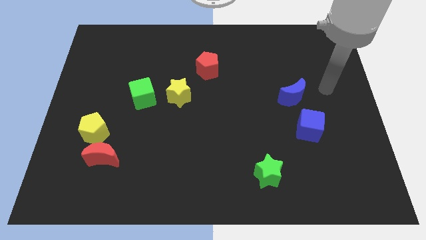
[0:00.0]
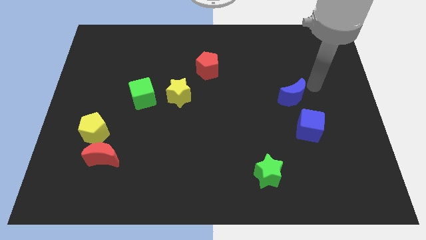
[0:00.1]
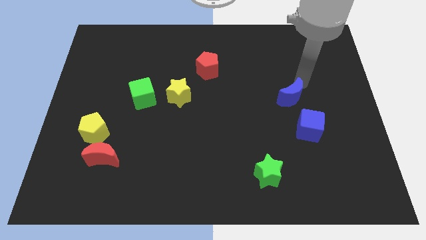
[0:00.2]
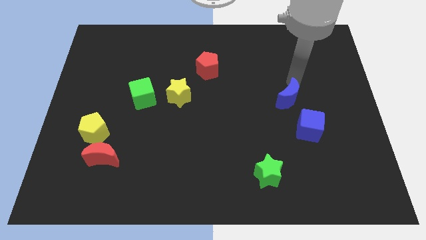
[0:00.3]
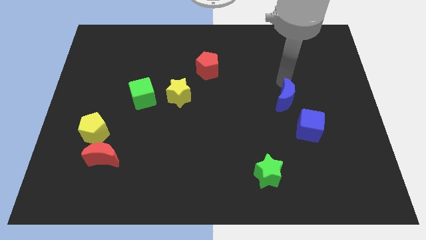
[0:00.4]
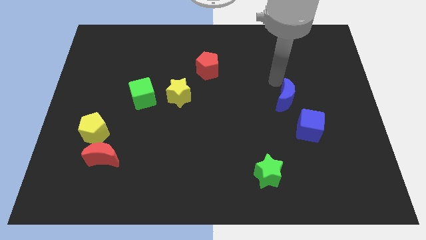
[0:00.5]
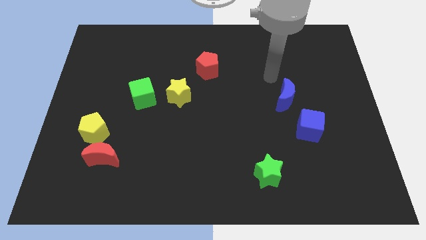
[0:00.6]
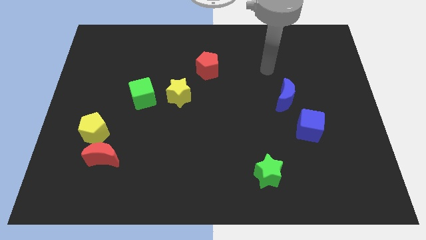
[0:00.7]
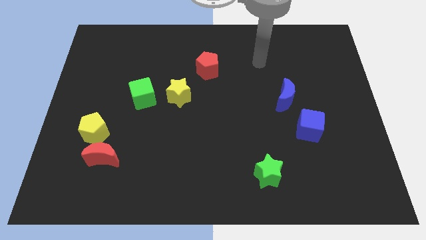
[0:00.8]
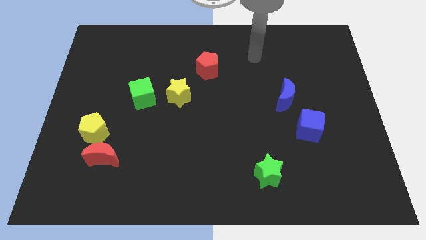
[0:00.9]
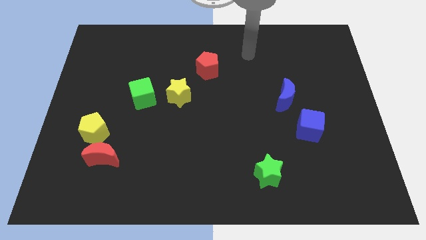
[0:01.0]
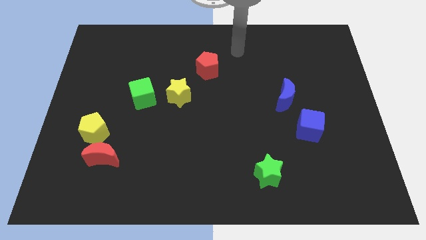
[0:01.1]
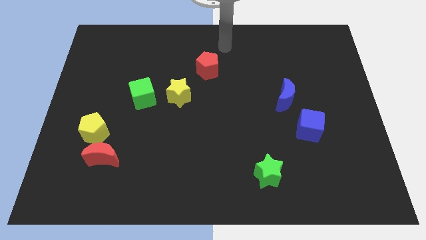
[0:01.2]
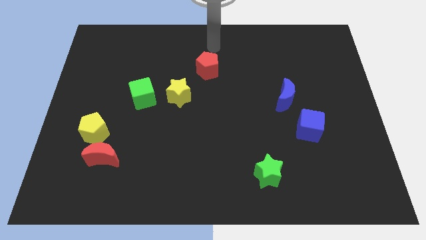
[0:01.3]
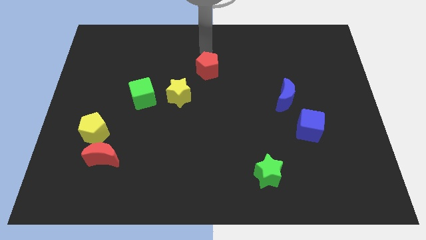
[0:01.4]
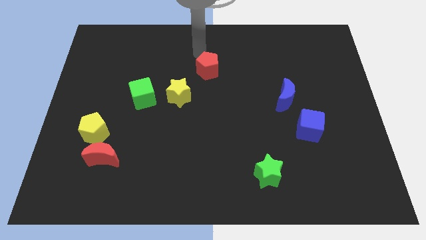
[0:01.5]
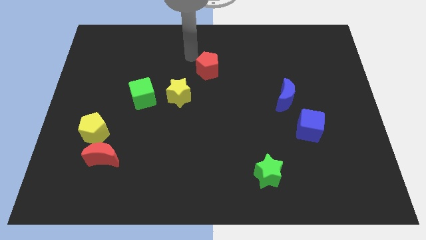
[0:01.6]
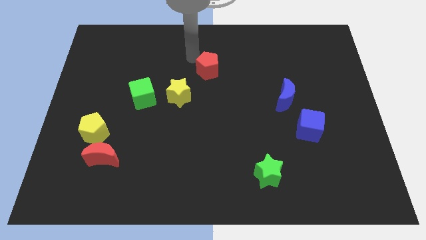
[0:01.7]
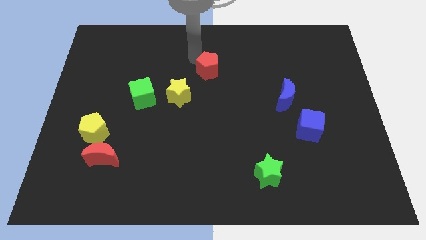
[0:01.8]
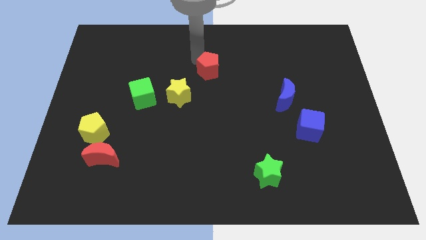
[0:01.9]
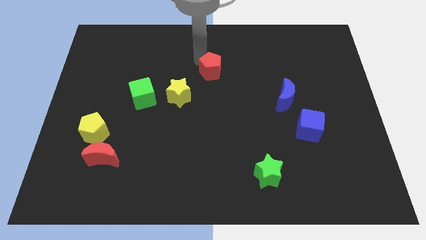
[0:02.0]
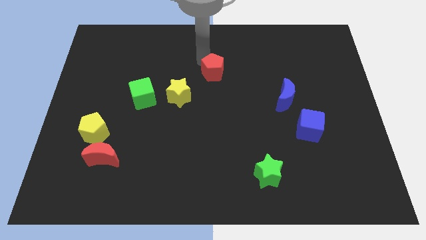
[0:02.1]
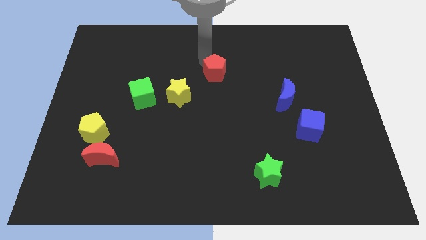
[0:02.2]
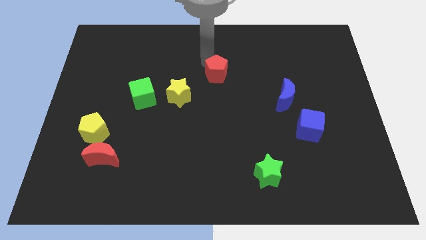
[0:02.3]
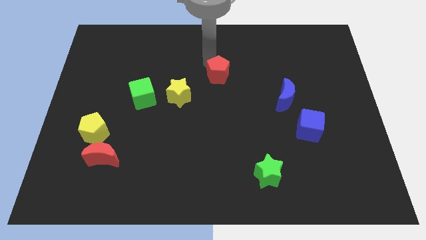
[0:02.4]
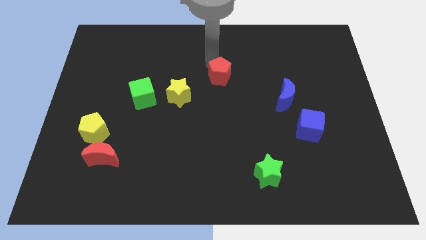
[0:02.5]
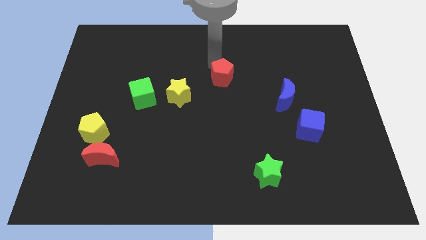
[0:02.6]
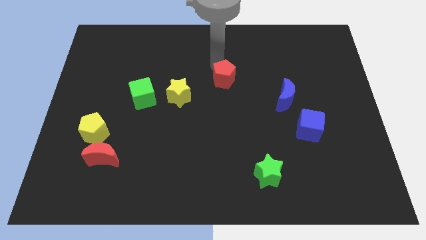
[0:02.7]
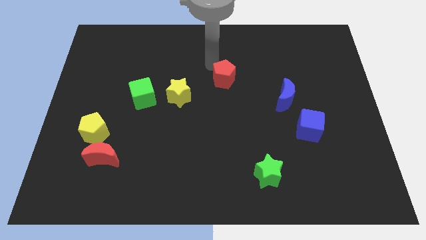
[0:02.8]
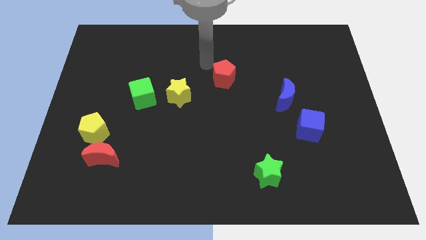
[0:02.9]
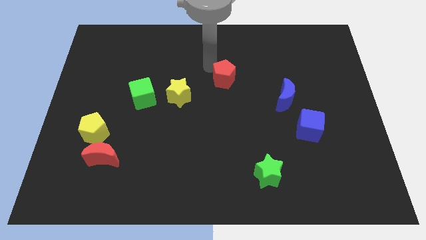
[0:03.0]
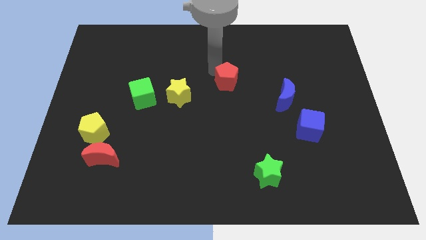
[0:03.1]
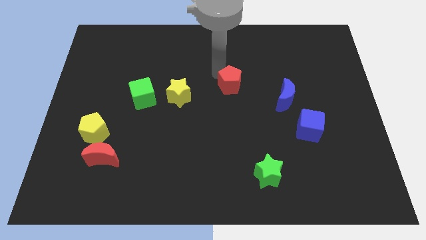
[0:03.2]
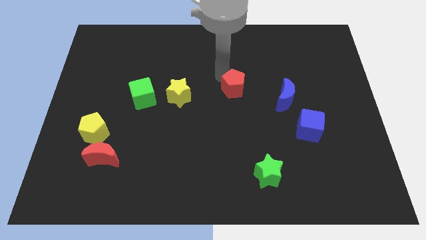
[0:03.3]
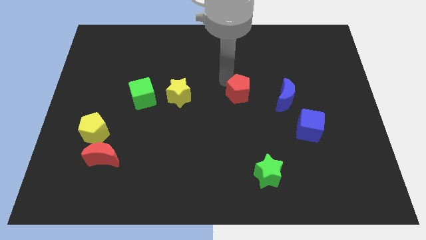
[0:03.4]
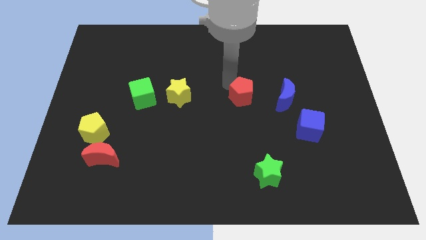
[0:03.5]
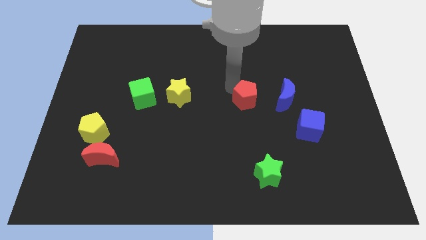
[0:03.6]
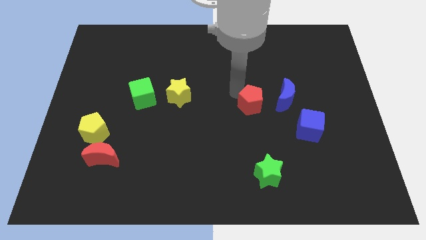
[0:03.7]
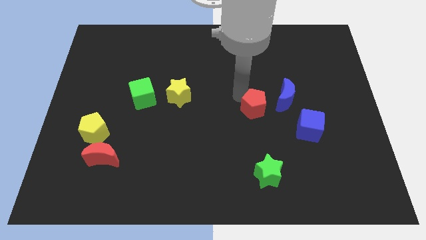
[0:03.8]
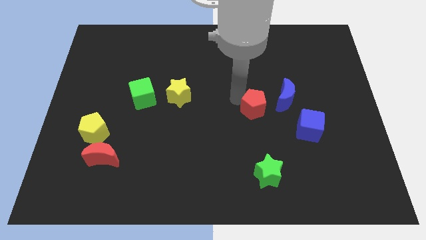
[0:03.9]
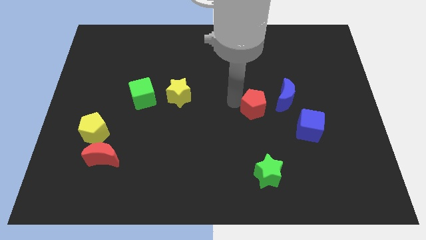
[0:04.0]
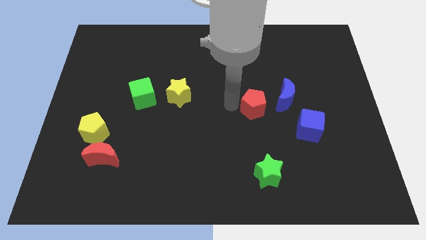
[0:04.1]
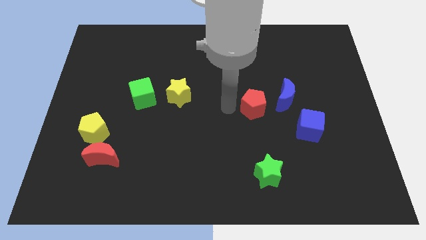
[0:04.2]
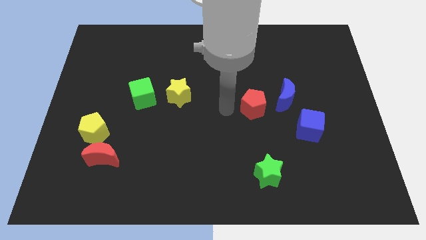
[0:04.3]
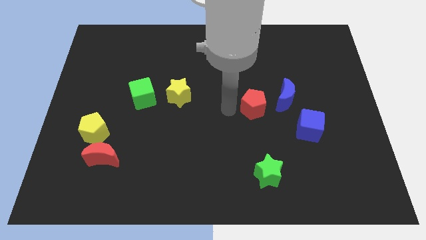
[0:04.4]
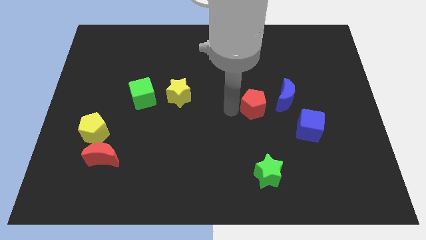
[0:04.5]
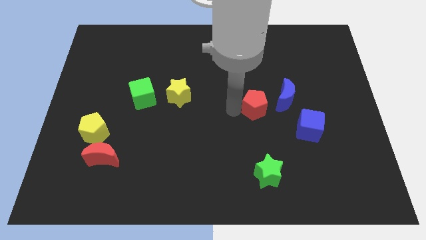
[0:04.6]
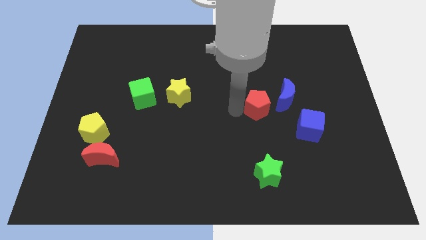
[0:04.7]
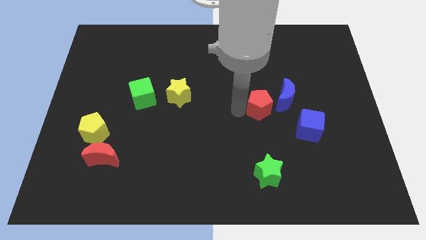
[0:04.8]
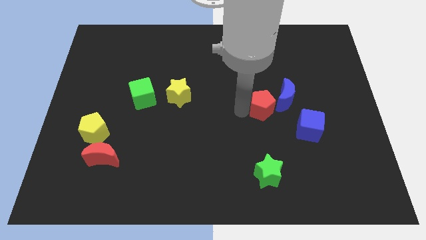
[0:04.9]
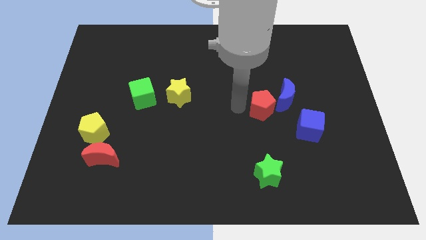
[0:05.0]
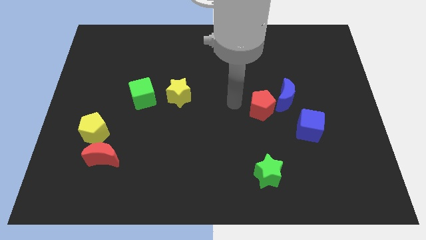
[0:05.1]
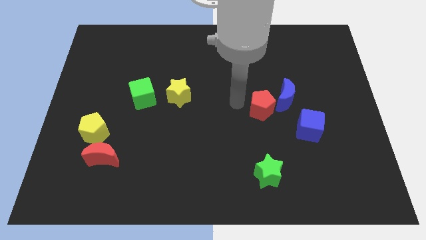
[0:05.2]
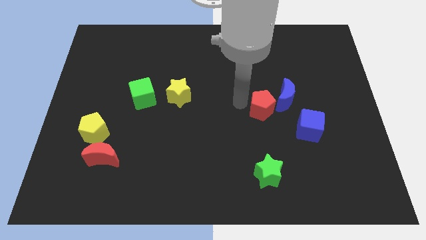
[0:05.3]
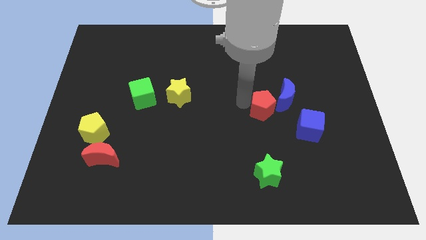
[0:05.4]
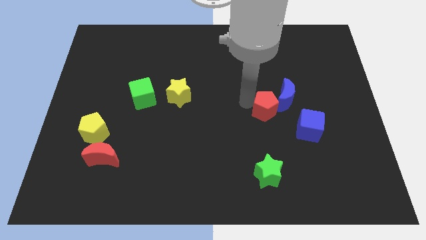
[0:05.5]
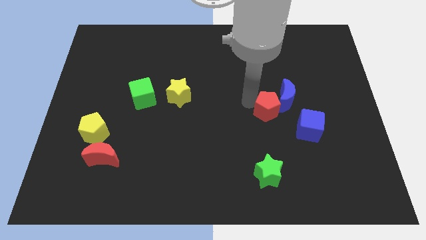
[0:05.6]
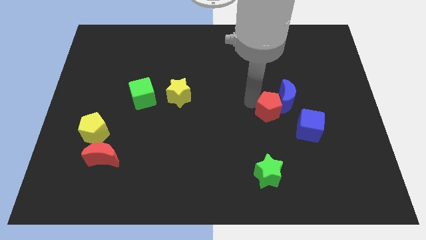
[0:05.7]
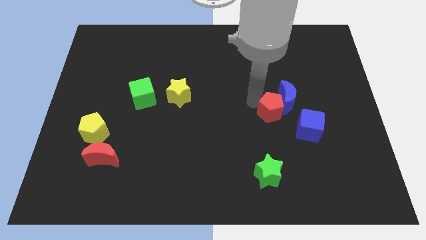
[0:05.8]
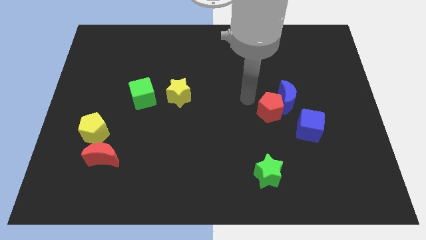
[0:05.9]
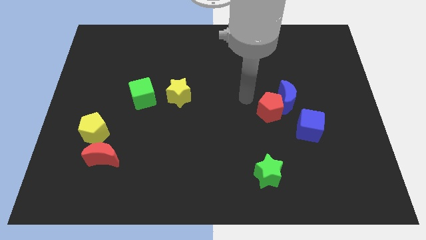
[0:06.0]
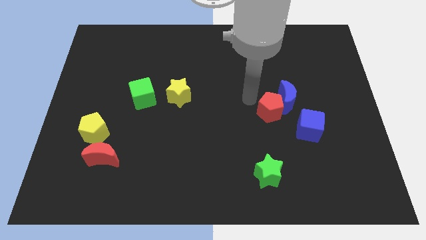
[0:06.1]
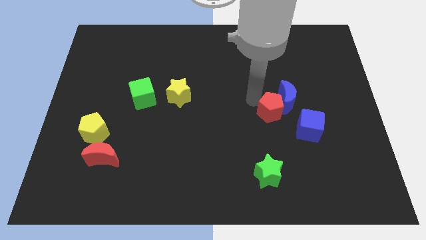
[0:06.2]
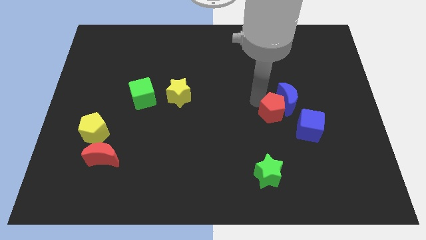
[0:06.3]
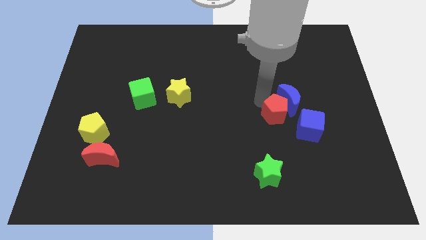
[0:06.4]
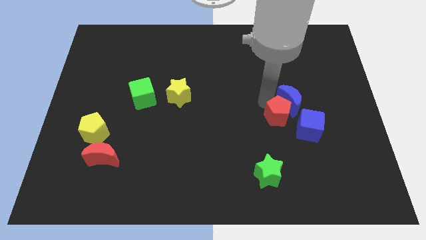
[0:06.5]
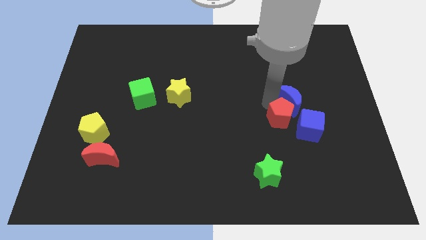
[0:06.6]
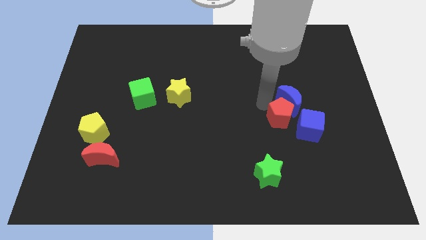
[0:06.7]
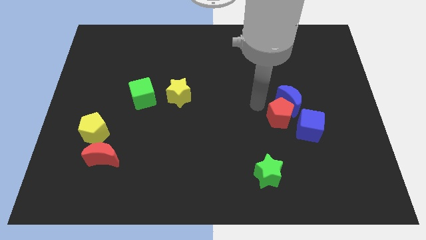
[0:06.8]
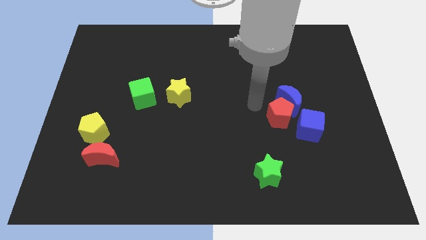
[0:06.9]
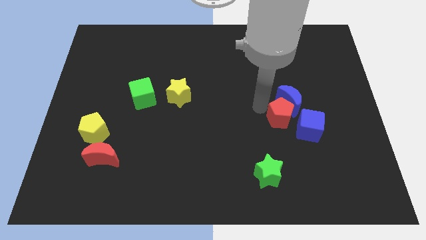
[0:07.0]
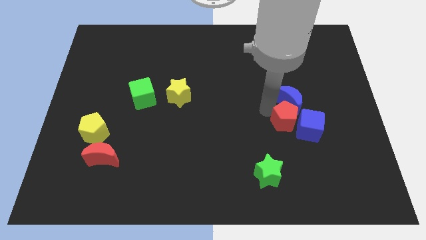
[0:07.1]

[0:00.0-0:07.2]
put the red pentagon towards the blue cube
